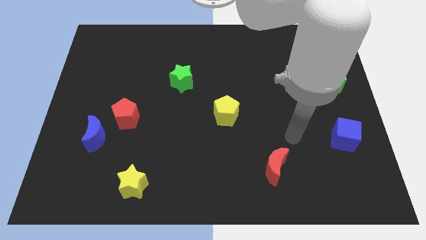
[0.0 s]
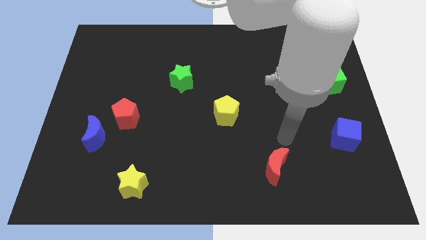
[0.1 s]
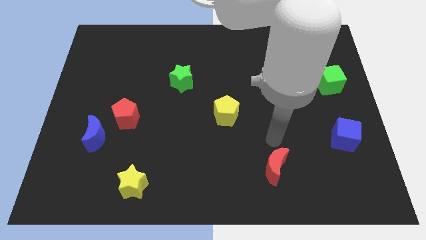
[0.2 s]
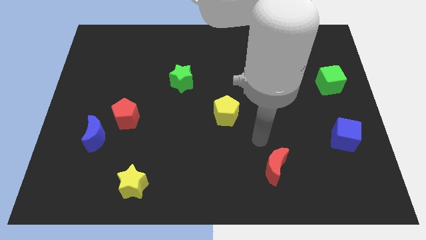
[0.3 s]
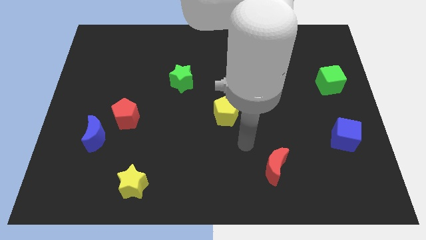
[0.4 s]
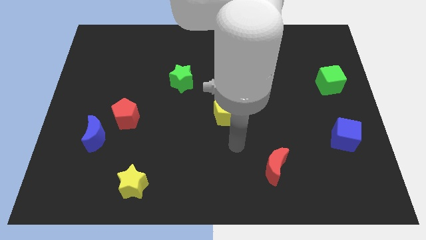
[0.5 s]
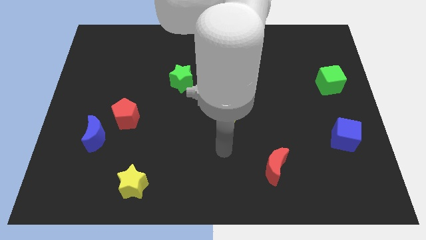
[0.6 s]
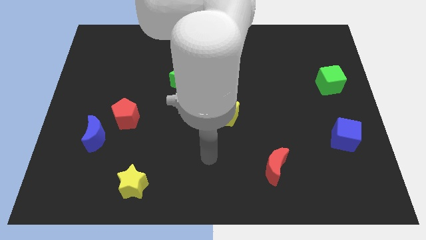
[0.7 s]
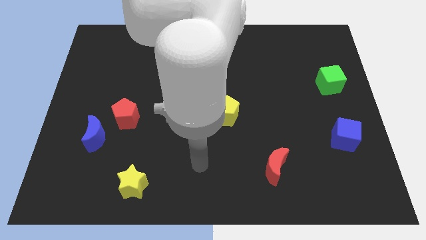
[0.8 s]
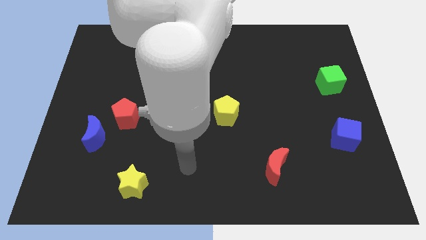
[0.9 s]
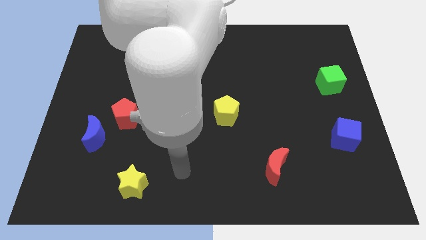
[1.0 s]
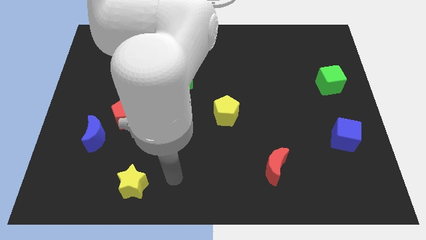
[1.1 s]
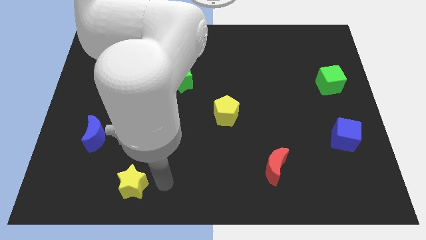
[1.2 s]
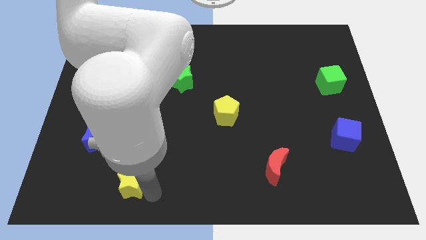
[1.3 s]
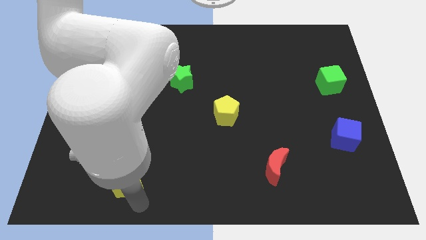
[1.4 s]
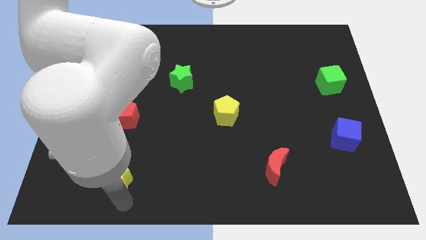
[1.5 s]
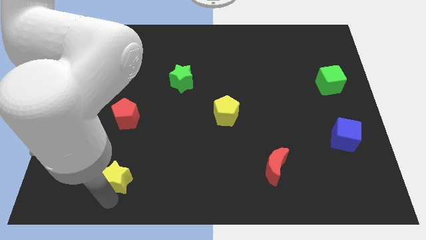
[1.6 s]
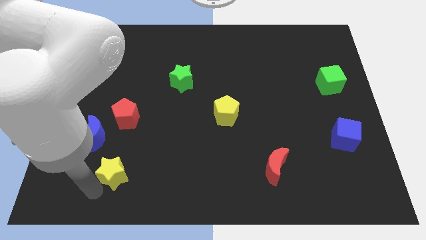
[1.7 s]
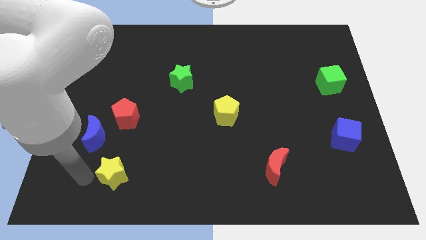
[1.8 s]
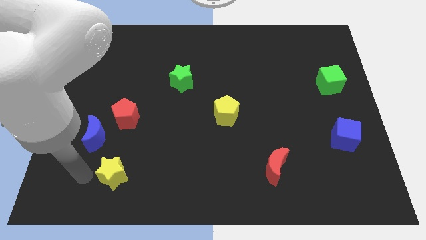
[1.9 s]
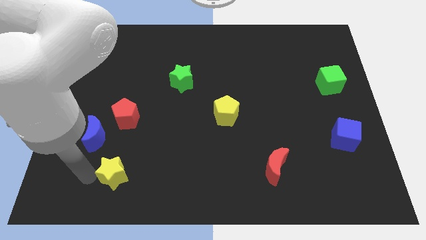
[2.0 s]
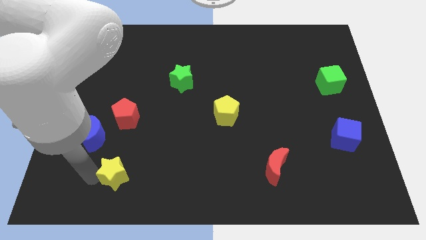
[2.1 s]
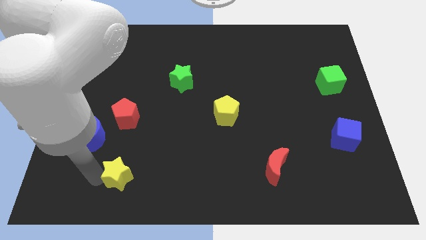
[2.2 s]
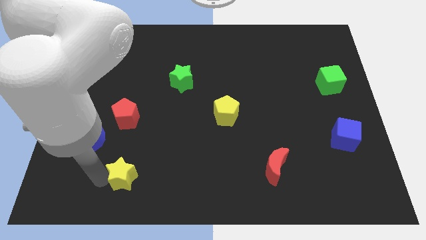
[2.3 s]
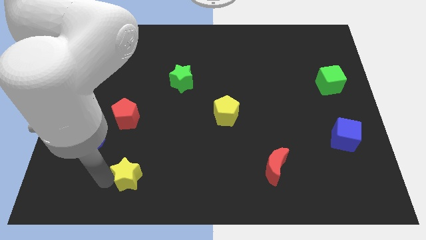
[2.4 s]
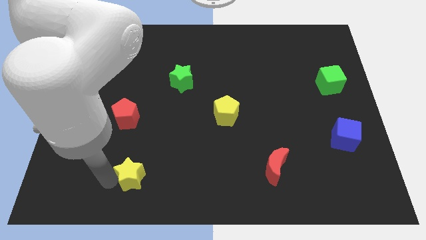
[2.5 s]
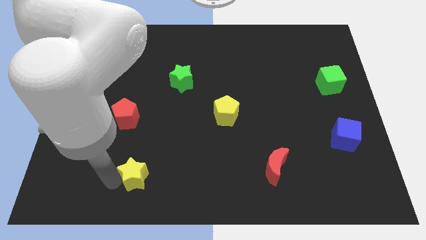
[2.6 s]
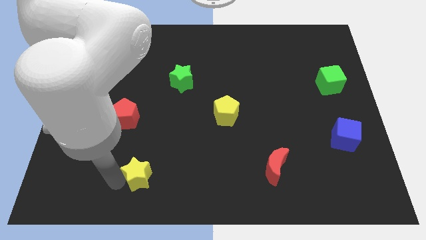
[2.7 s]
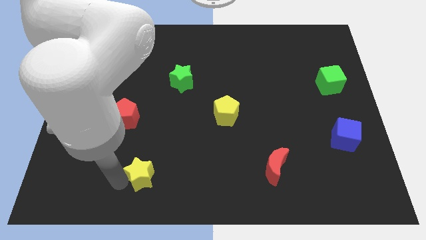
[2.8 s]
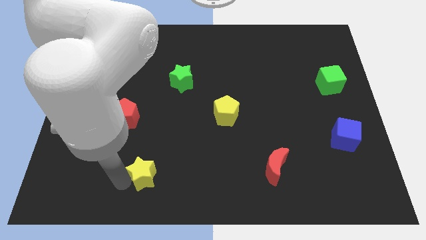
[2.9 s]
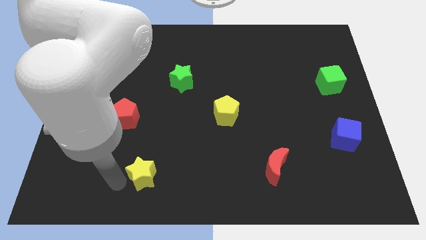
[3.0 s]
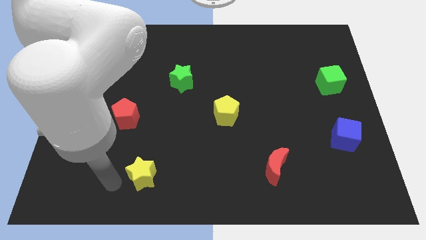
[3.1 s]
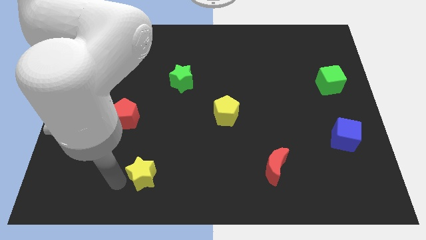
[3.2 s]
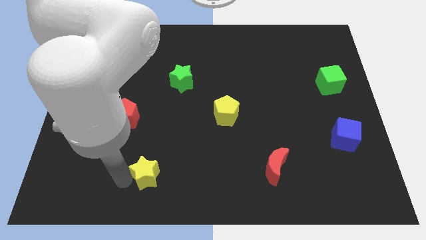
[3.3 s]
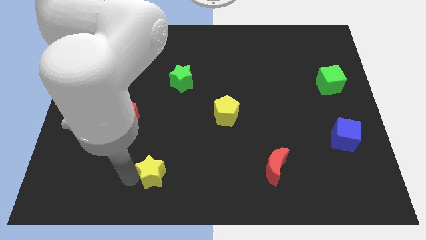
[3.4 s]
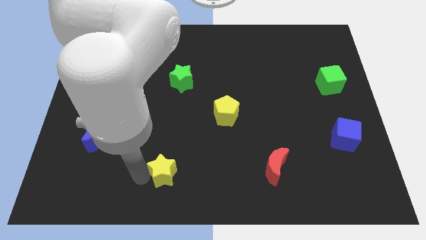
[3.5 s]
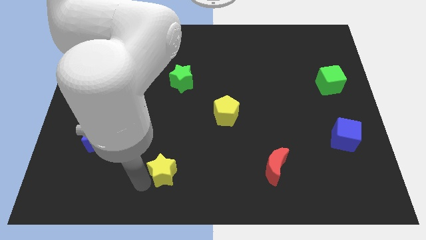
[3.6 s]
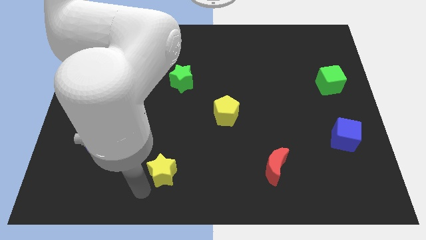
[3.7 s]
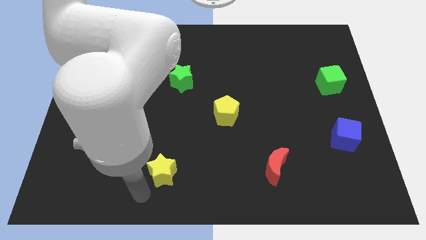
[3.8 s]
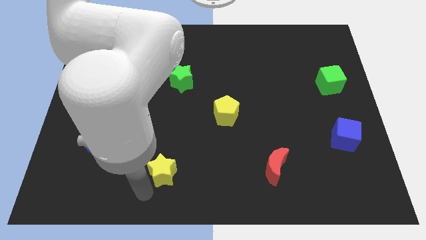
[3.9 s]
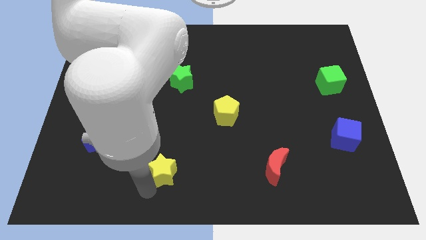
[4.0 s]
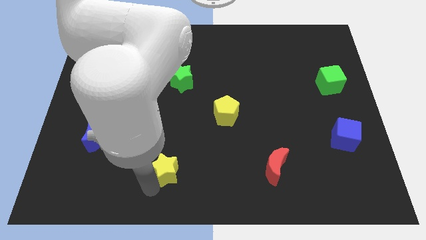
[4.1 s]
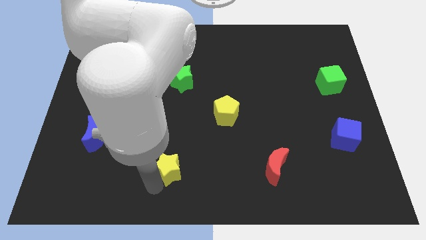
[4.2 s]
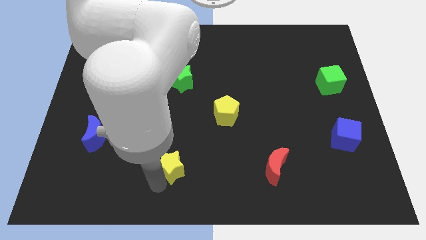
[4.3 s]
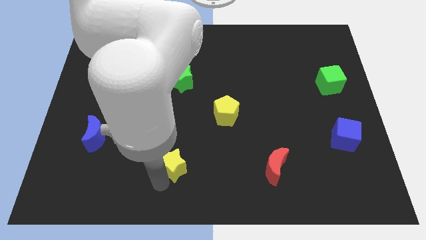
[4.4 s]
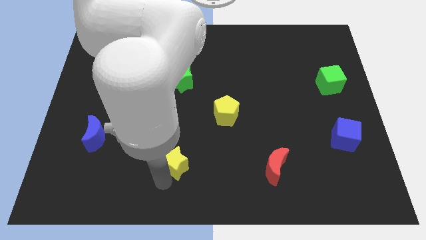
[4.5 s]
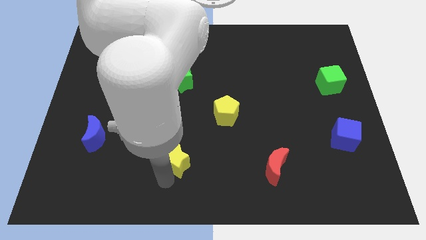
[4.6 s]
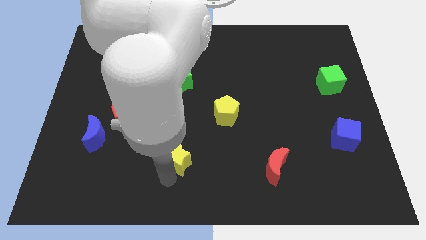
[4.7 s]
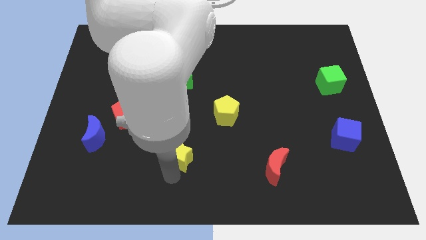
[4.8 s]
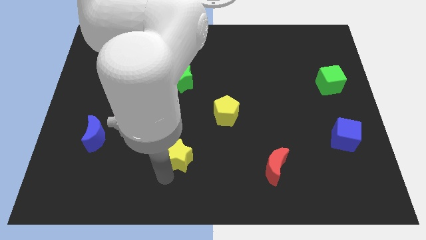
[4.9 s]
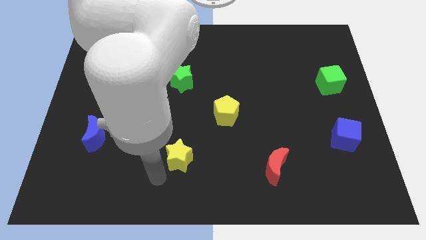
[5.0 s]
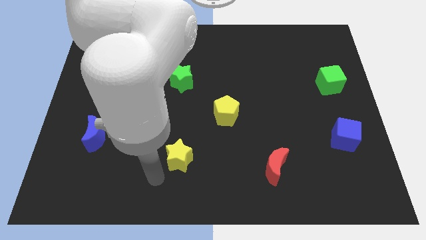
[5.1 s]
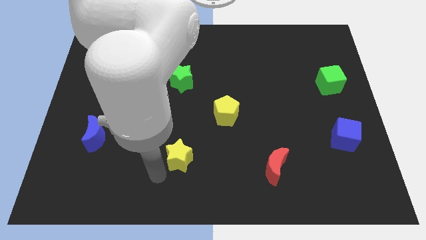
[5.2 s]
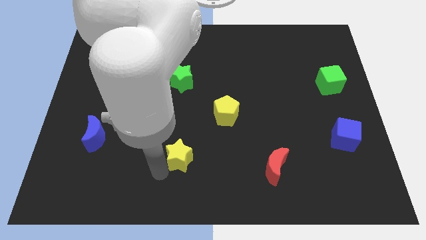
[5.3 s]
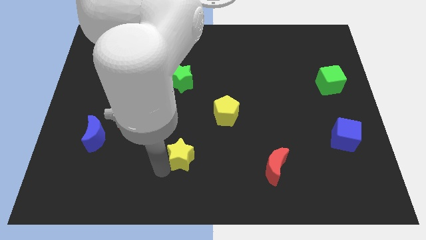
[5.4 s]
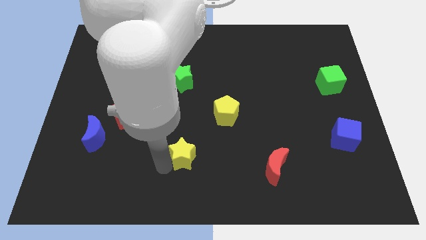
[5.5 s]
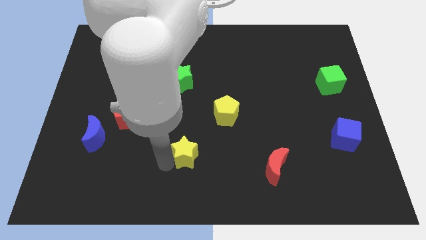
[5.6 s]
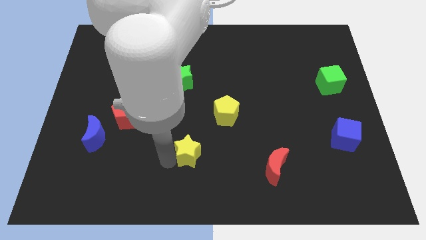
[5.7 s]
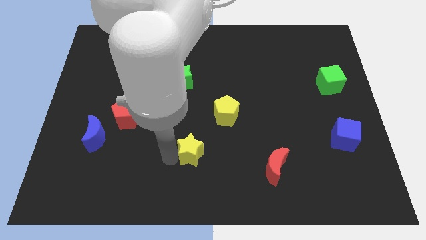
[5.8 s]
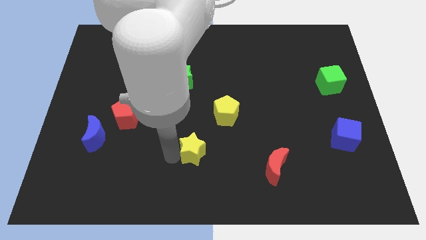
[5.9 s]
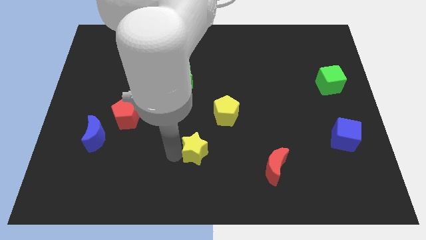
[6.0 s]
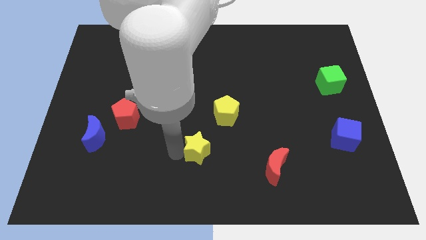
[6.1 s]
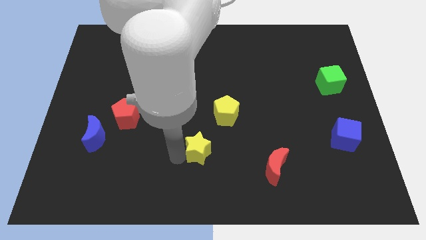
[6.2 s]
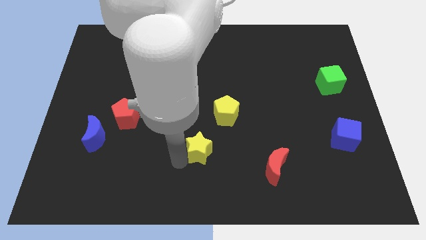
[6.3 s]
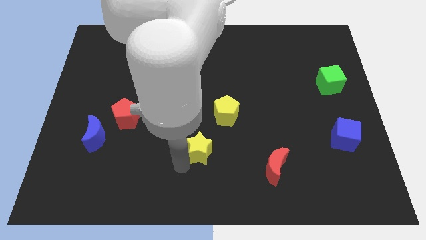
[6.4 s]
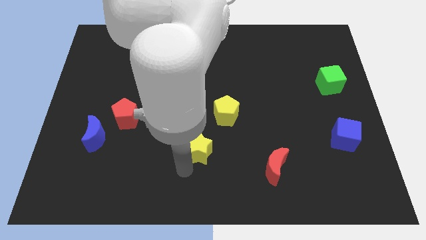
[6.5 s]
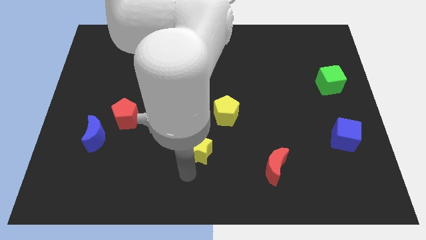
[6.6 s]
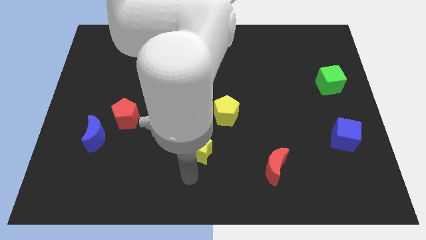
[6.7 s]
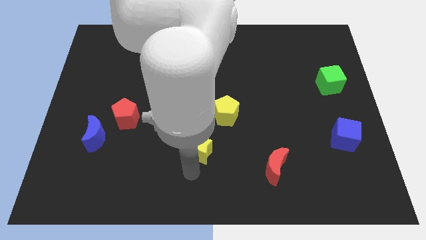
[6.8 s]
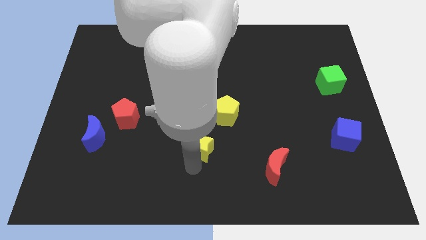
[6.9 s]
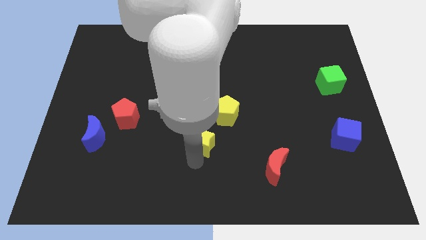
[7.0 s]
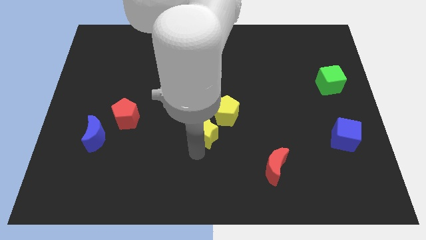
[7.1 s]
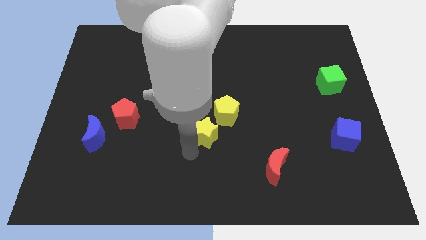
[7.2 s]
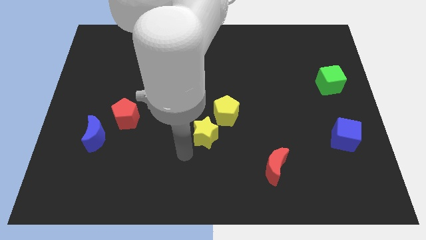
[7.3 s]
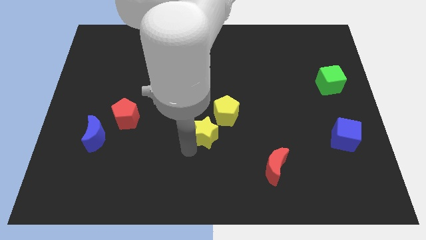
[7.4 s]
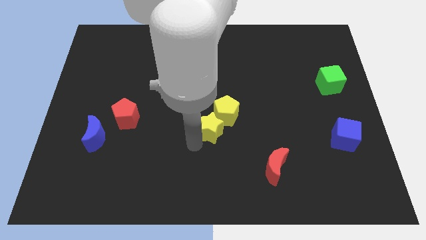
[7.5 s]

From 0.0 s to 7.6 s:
push the yellow star to the yellow pentagon
